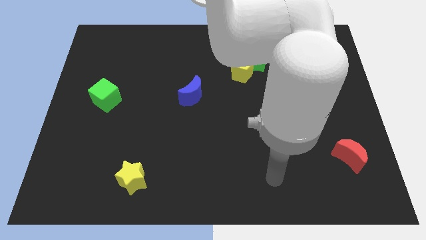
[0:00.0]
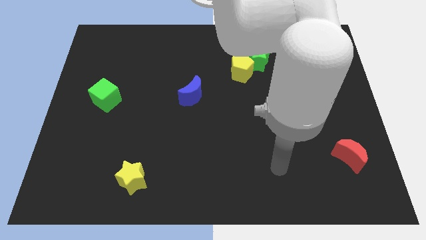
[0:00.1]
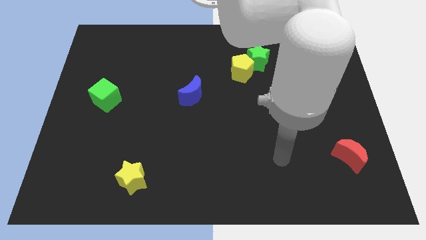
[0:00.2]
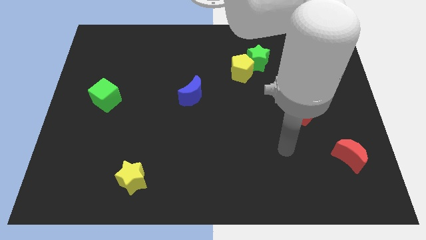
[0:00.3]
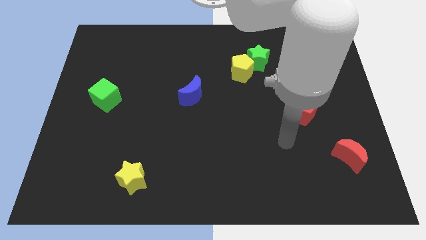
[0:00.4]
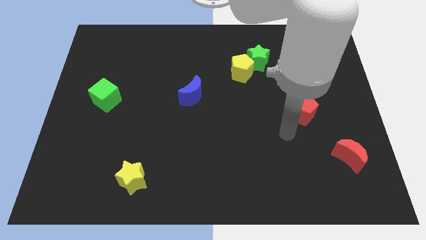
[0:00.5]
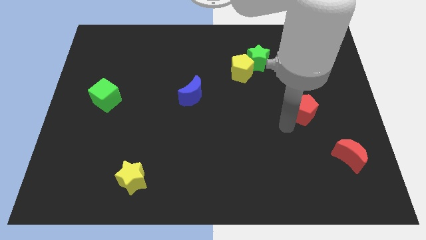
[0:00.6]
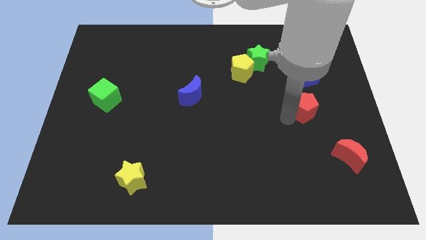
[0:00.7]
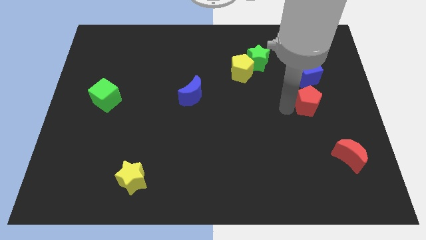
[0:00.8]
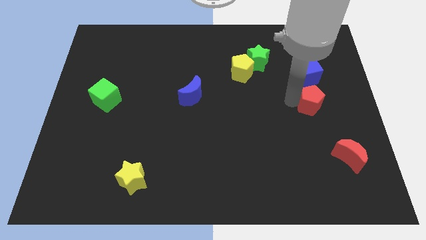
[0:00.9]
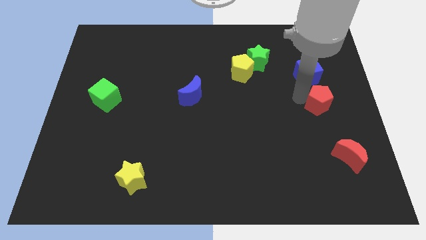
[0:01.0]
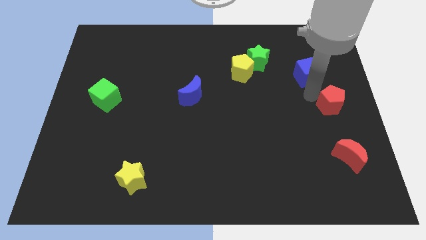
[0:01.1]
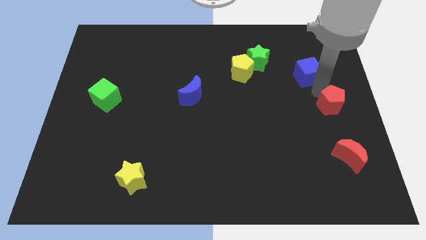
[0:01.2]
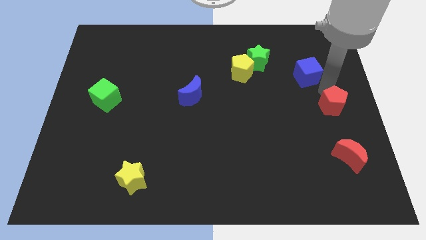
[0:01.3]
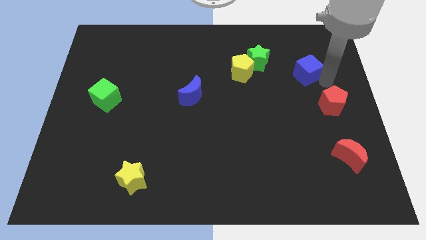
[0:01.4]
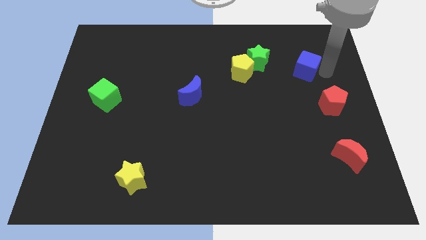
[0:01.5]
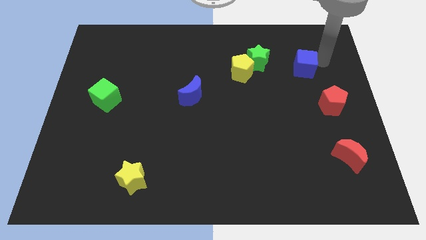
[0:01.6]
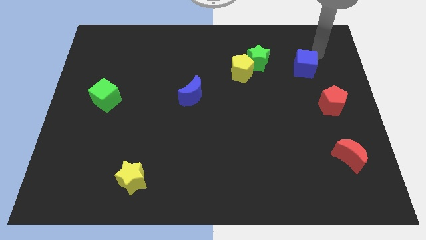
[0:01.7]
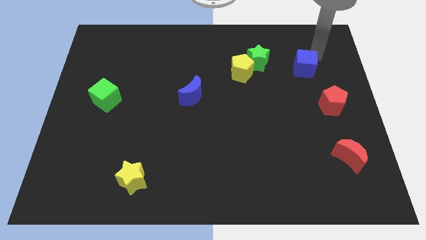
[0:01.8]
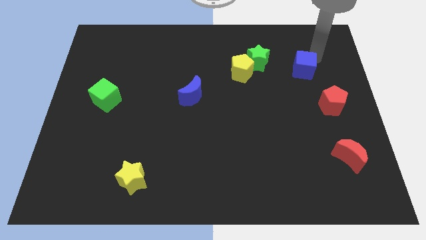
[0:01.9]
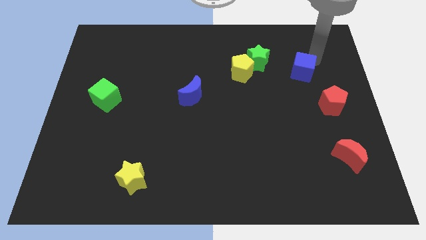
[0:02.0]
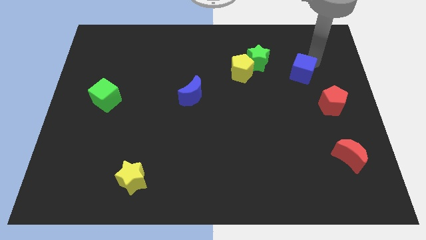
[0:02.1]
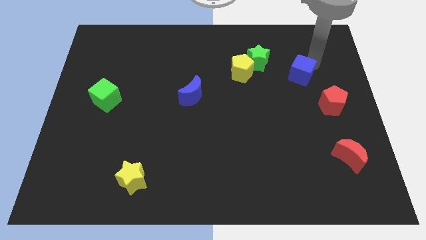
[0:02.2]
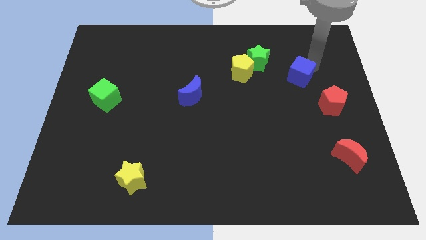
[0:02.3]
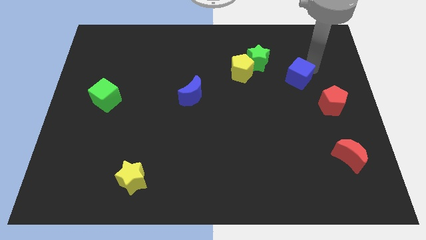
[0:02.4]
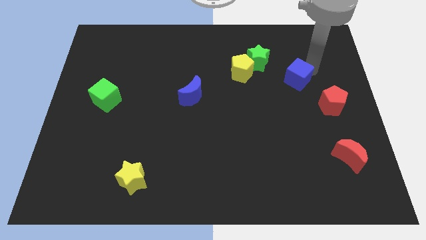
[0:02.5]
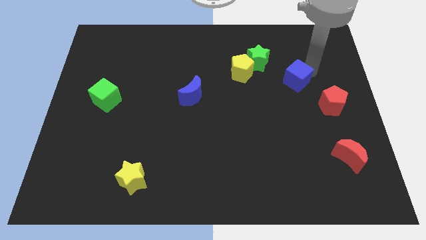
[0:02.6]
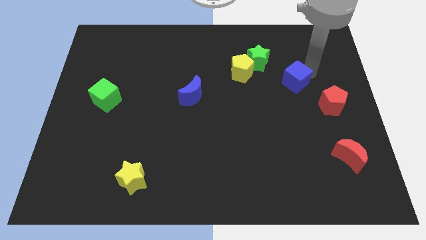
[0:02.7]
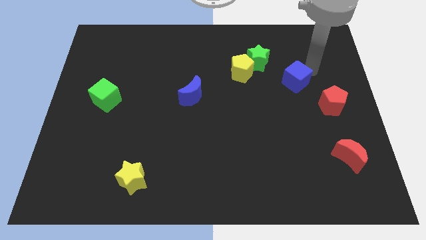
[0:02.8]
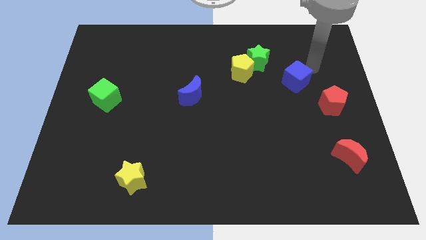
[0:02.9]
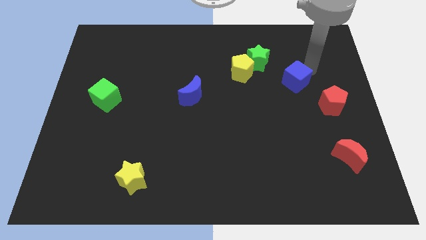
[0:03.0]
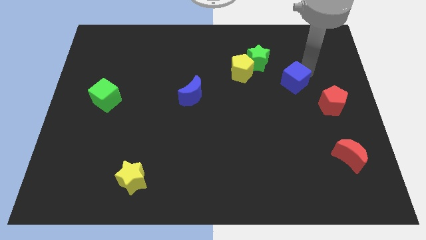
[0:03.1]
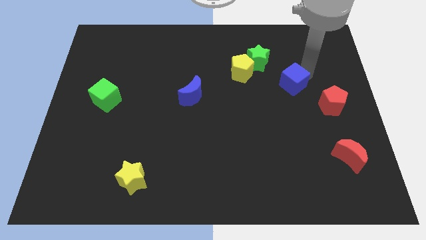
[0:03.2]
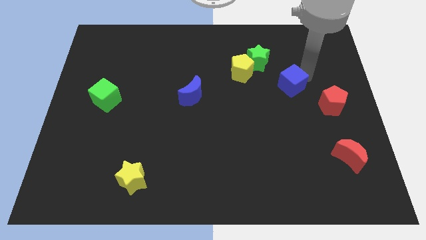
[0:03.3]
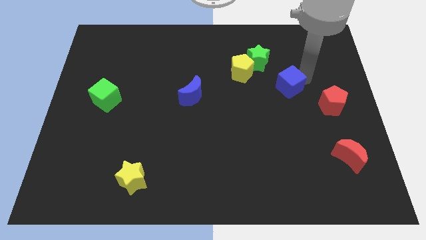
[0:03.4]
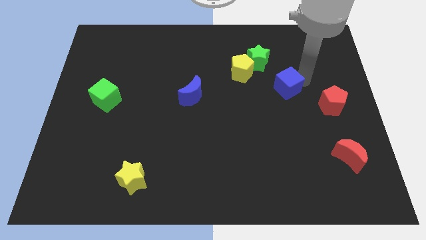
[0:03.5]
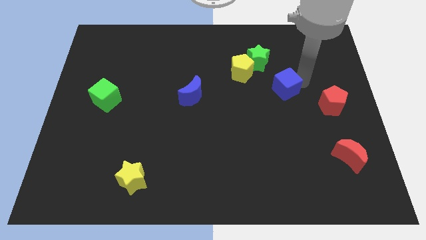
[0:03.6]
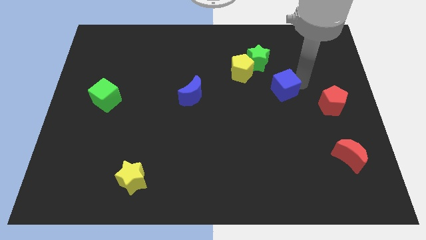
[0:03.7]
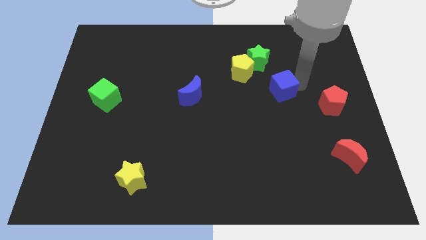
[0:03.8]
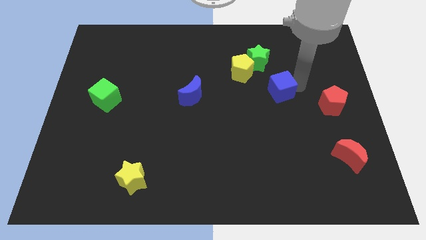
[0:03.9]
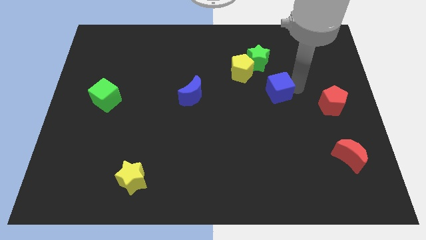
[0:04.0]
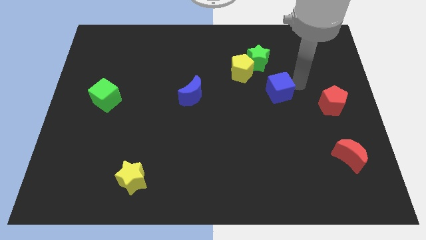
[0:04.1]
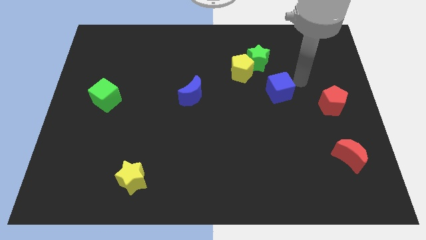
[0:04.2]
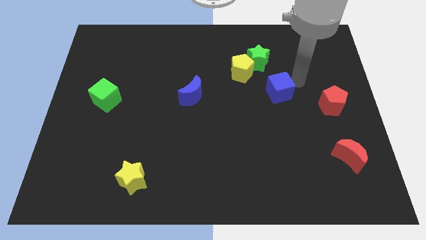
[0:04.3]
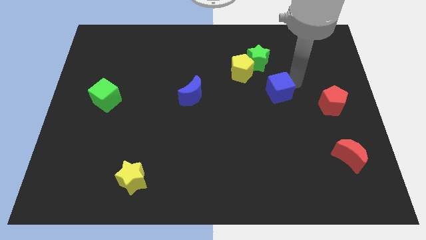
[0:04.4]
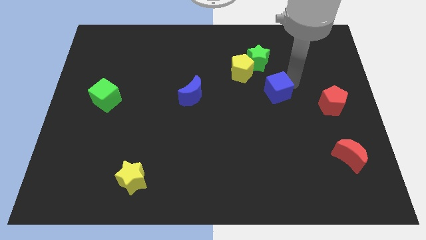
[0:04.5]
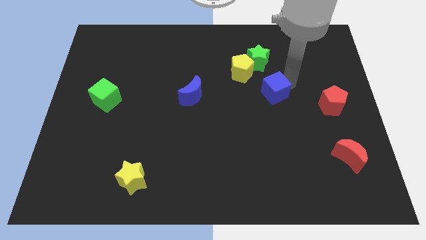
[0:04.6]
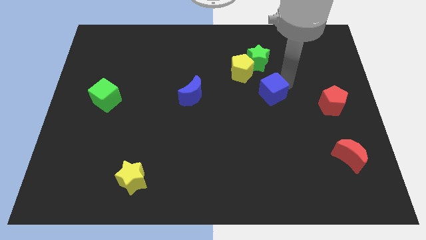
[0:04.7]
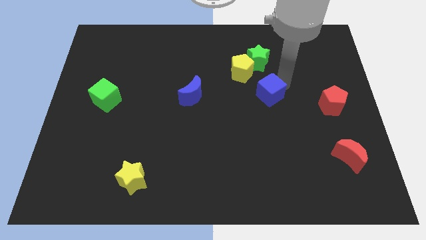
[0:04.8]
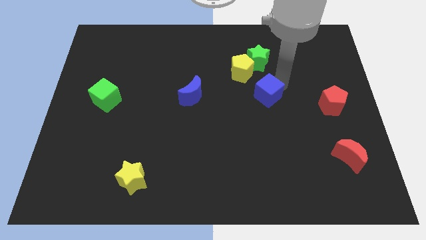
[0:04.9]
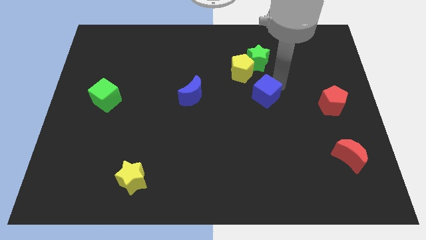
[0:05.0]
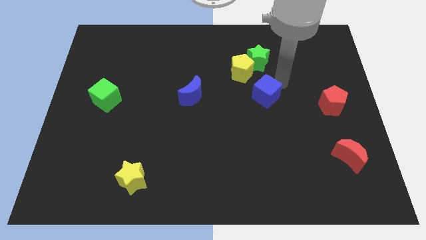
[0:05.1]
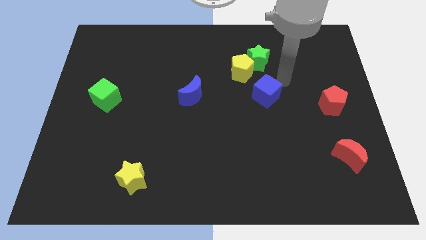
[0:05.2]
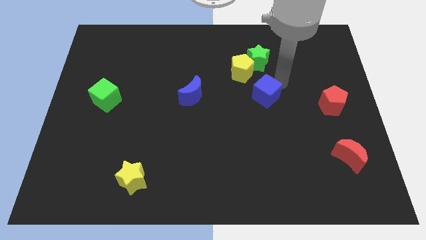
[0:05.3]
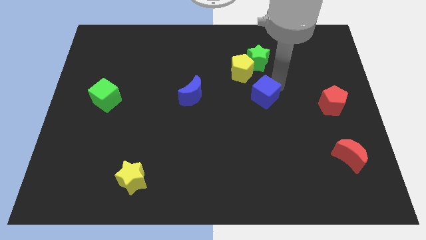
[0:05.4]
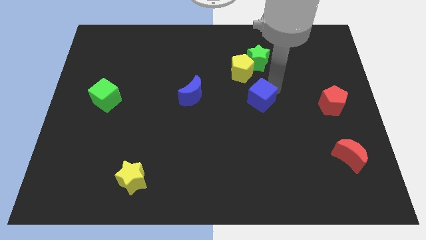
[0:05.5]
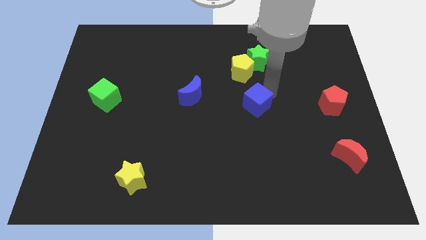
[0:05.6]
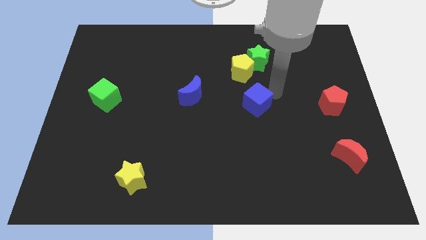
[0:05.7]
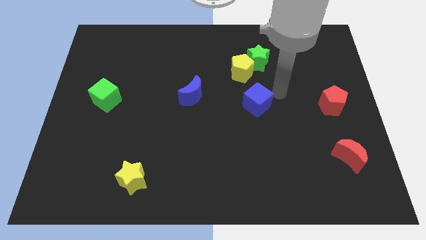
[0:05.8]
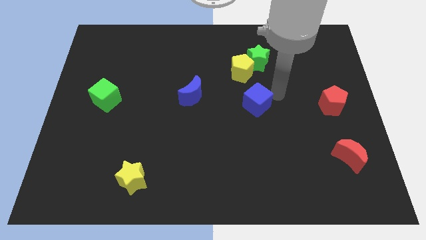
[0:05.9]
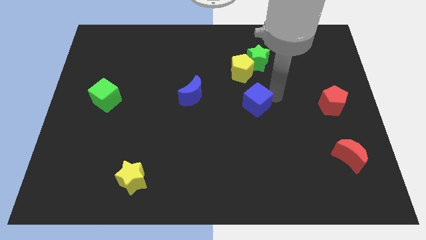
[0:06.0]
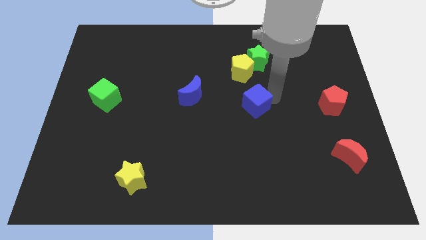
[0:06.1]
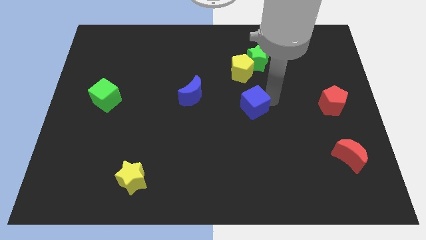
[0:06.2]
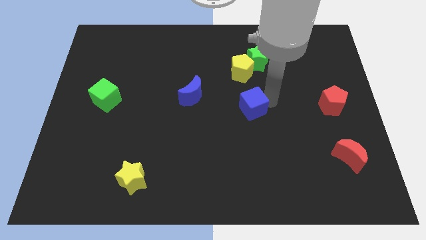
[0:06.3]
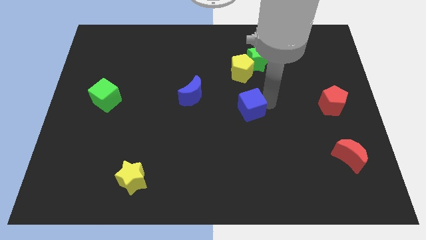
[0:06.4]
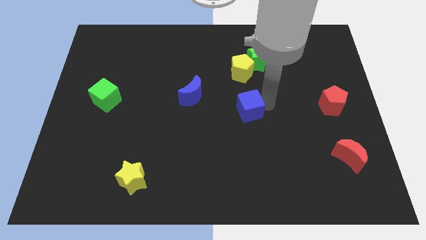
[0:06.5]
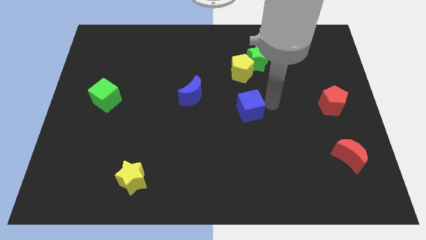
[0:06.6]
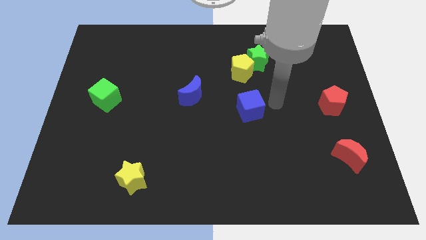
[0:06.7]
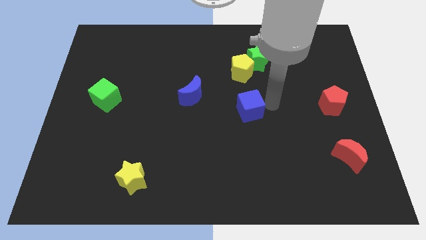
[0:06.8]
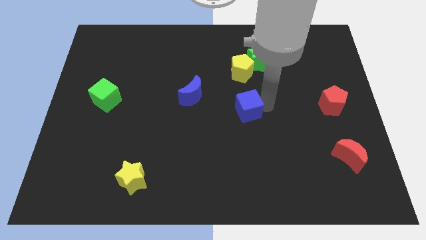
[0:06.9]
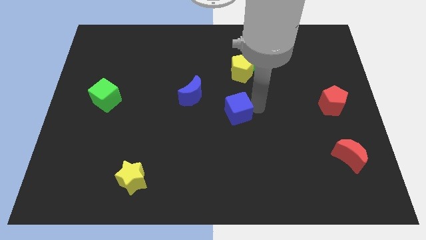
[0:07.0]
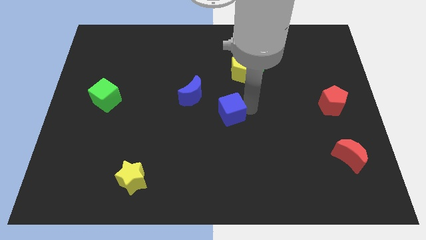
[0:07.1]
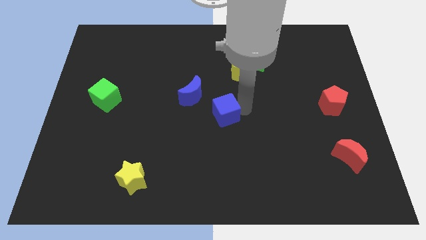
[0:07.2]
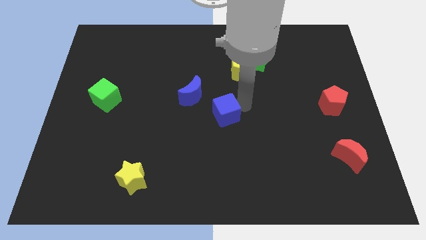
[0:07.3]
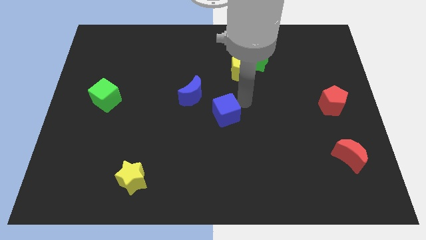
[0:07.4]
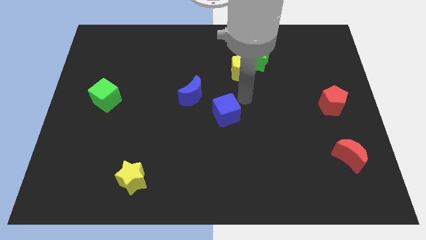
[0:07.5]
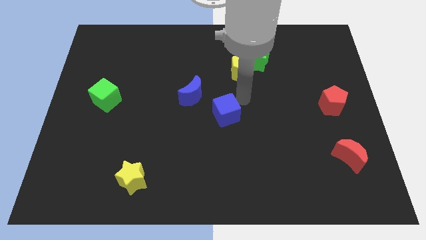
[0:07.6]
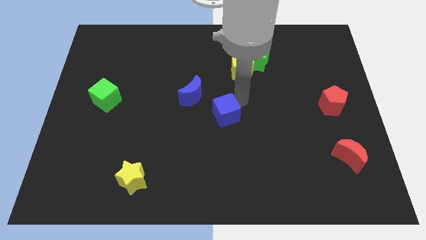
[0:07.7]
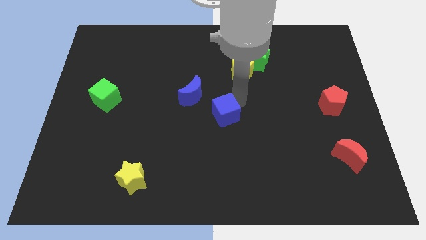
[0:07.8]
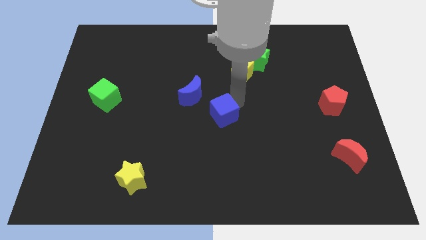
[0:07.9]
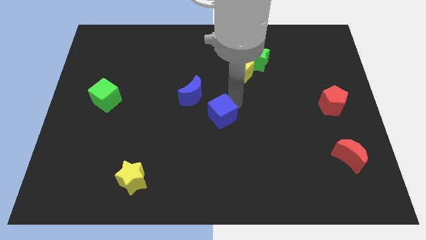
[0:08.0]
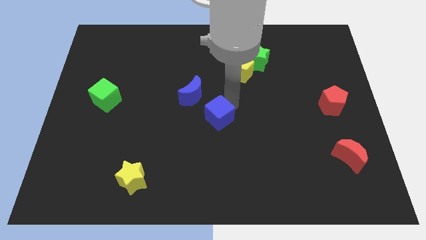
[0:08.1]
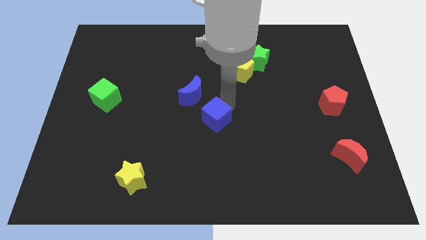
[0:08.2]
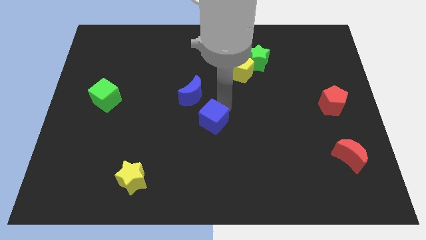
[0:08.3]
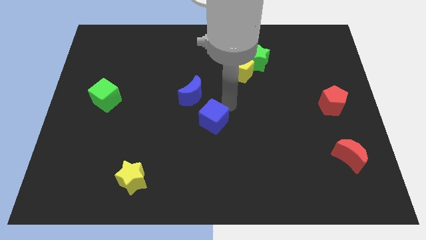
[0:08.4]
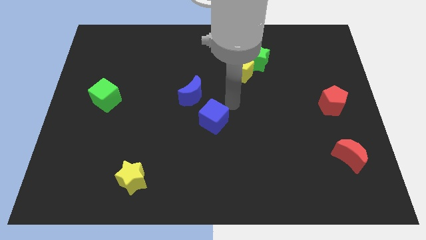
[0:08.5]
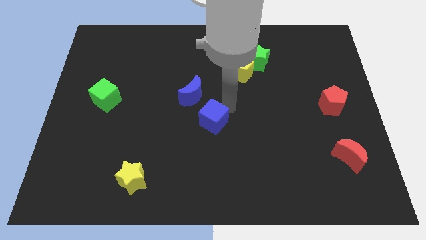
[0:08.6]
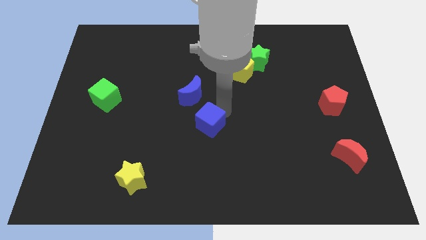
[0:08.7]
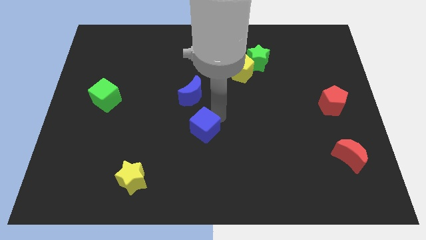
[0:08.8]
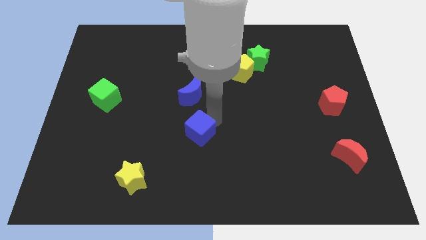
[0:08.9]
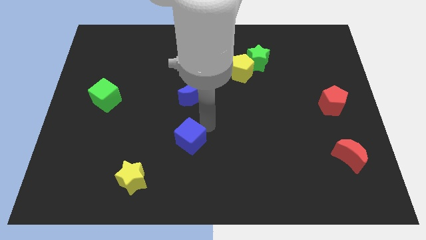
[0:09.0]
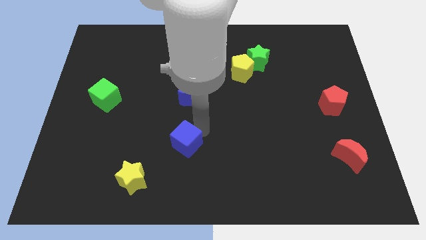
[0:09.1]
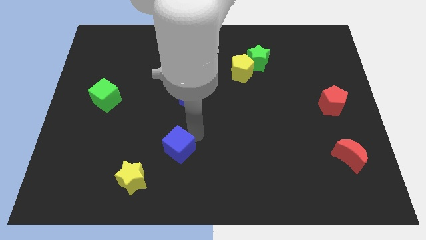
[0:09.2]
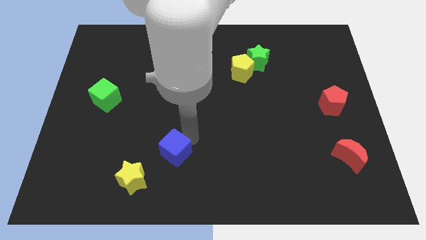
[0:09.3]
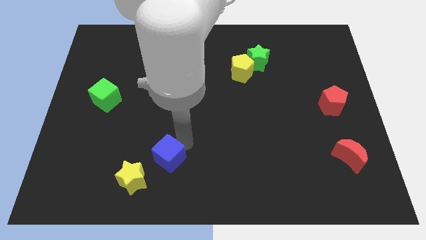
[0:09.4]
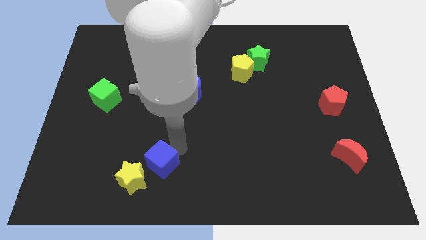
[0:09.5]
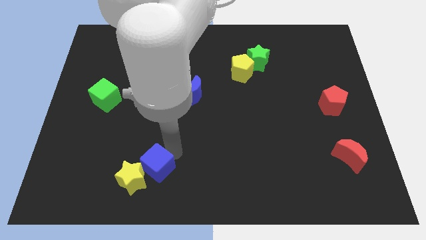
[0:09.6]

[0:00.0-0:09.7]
move the blue cube next to the yellow star
